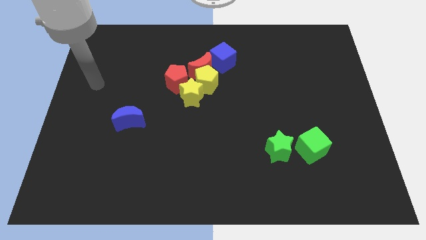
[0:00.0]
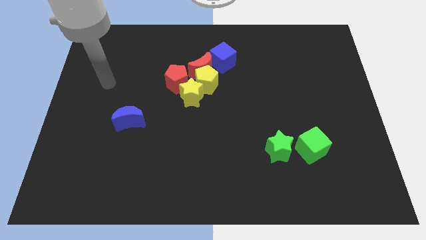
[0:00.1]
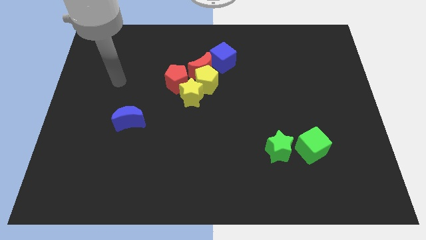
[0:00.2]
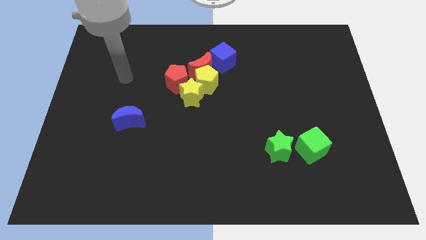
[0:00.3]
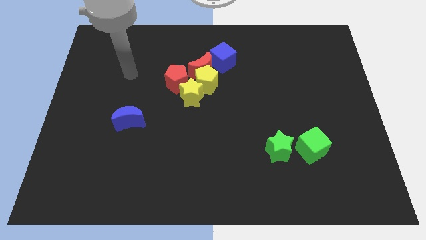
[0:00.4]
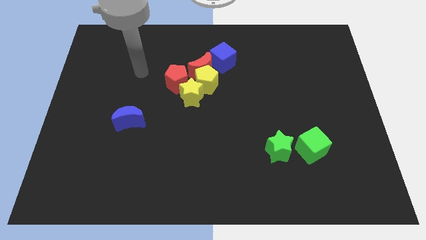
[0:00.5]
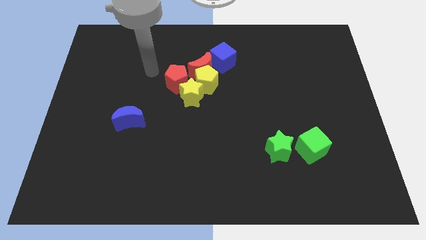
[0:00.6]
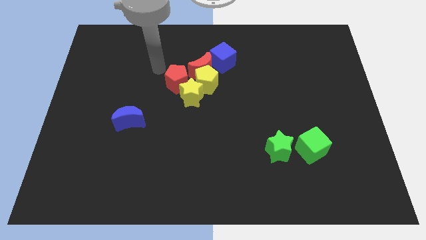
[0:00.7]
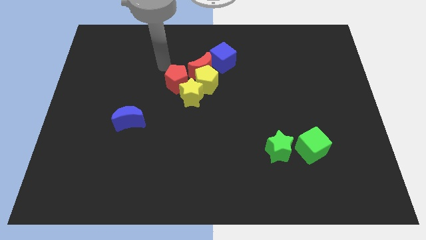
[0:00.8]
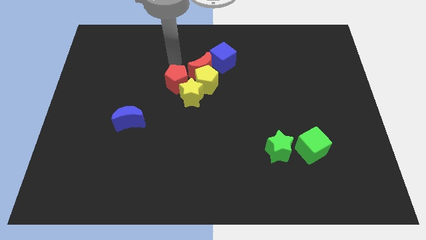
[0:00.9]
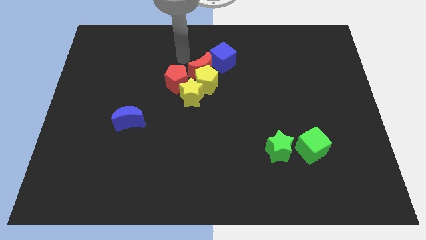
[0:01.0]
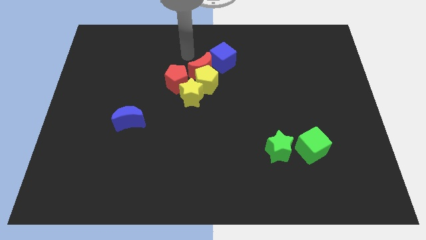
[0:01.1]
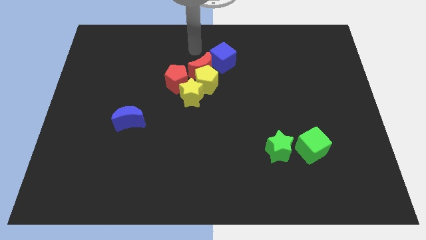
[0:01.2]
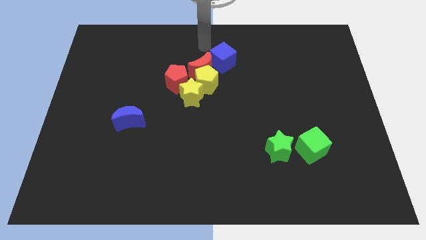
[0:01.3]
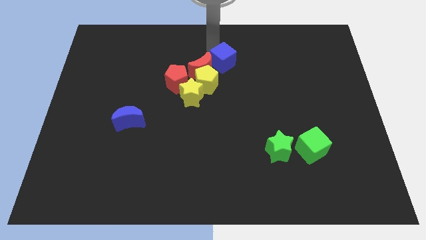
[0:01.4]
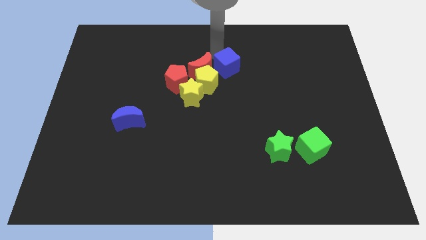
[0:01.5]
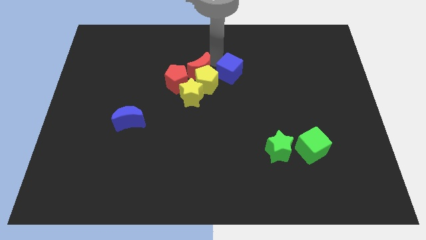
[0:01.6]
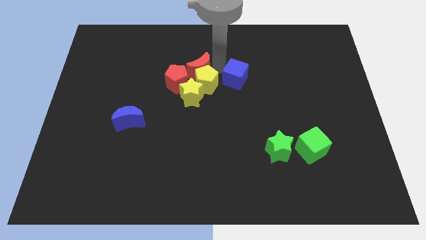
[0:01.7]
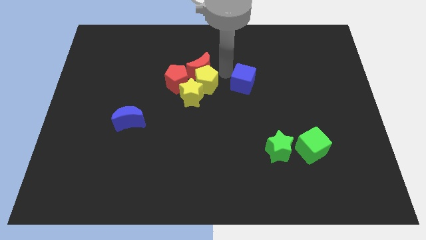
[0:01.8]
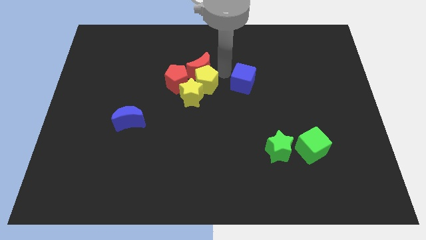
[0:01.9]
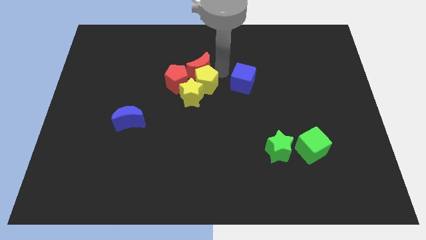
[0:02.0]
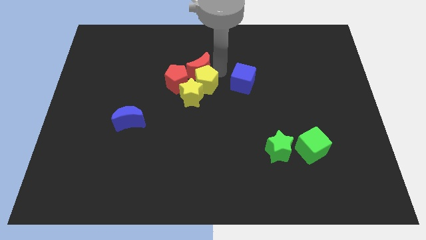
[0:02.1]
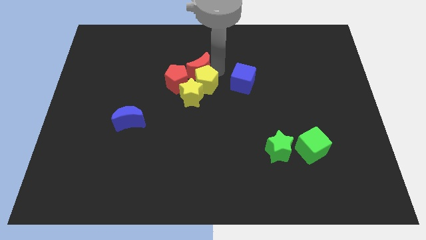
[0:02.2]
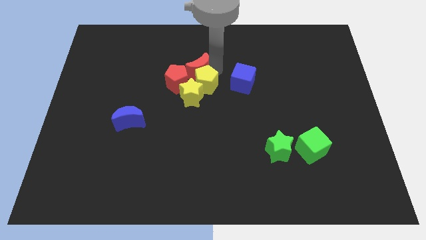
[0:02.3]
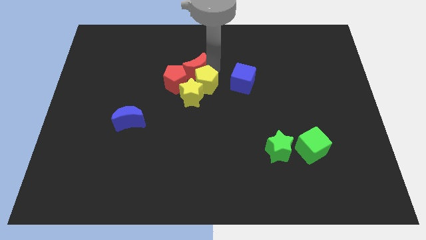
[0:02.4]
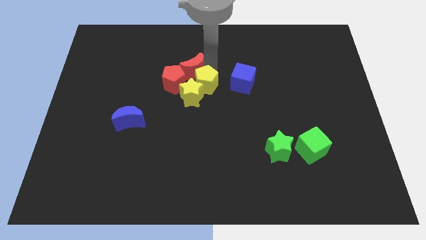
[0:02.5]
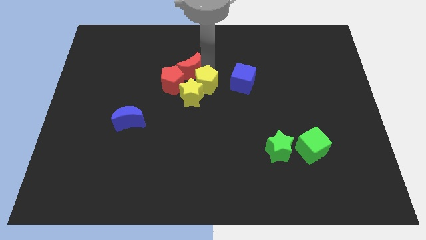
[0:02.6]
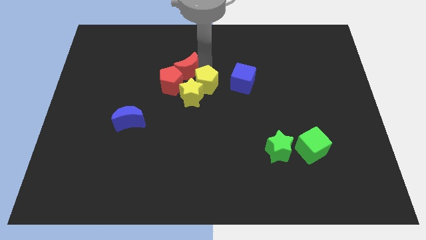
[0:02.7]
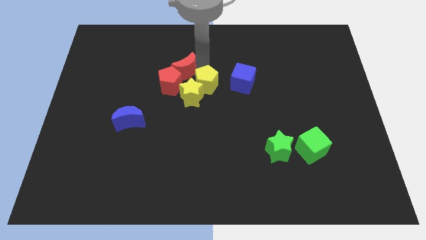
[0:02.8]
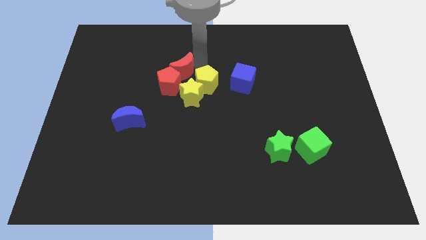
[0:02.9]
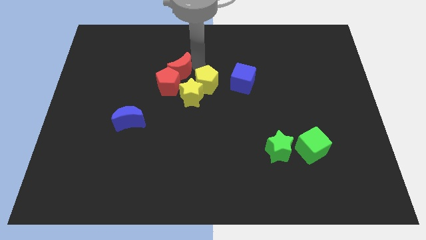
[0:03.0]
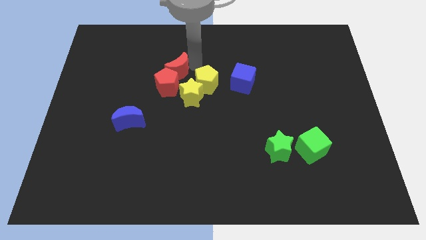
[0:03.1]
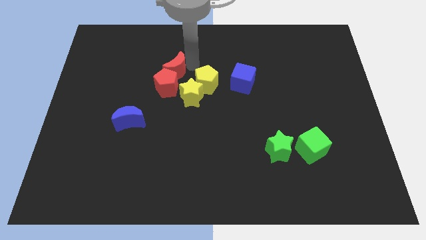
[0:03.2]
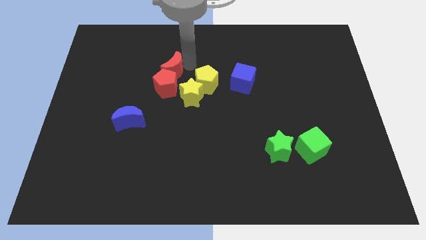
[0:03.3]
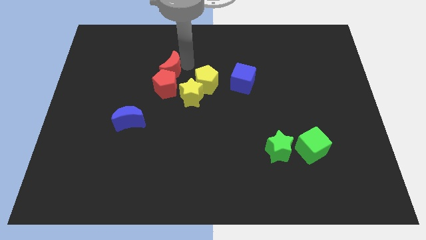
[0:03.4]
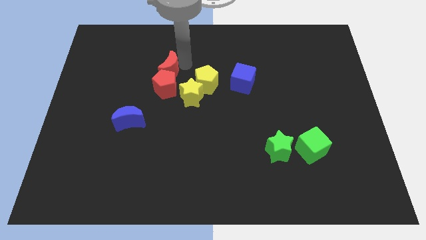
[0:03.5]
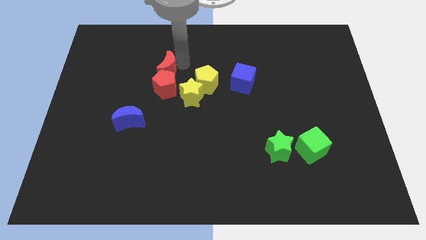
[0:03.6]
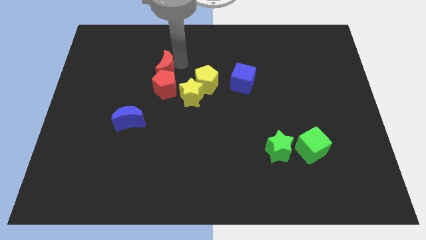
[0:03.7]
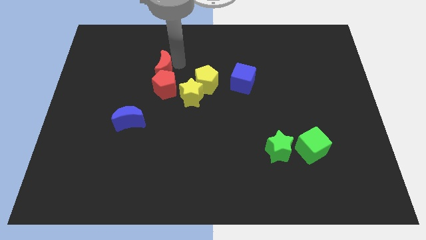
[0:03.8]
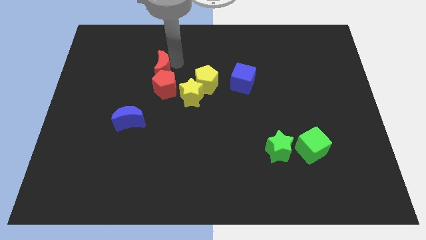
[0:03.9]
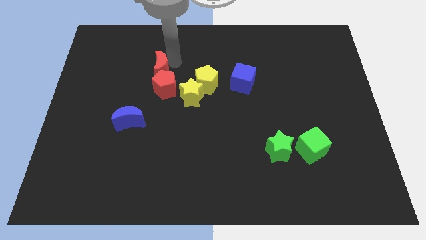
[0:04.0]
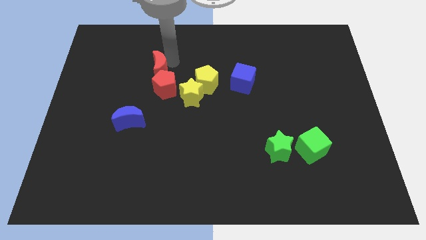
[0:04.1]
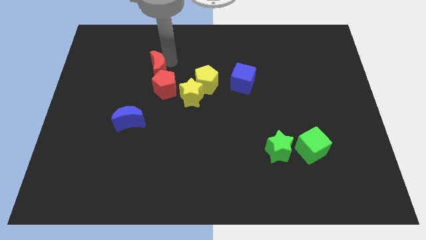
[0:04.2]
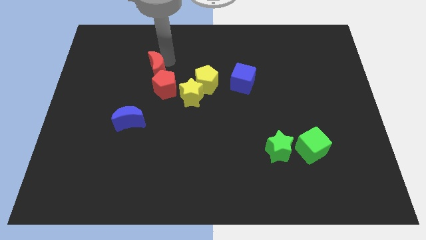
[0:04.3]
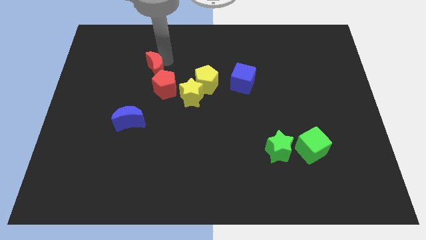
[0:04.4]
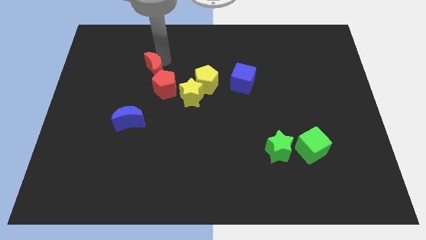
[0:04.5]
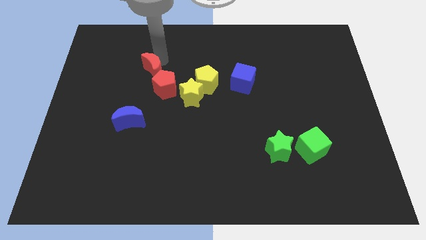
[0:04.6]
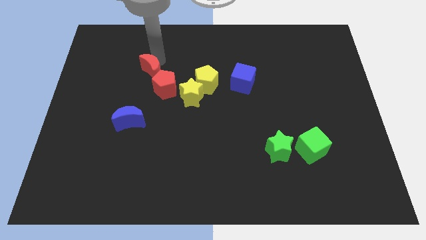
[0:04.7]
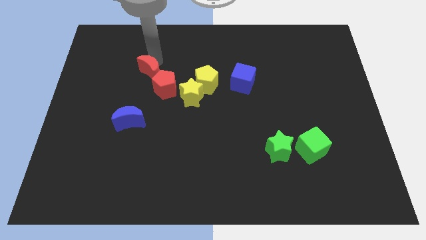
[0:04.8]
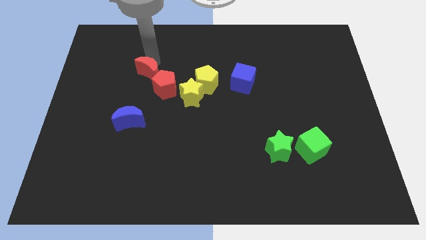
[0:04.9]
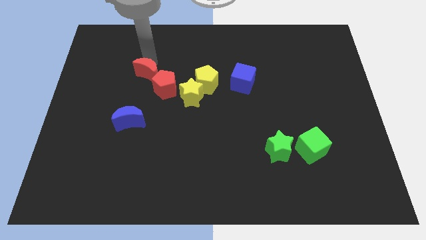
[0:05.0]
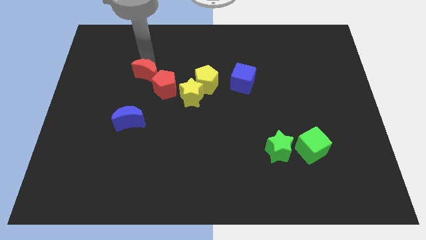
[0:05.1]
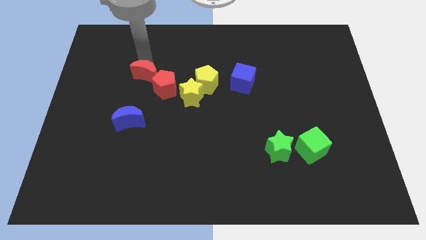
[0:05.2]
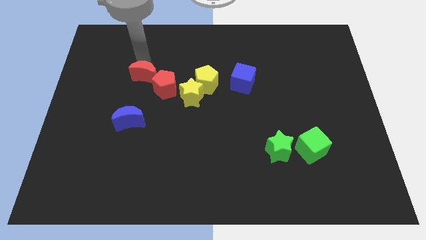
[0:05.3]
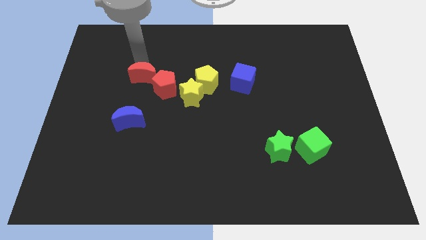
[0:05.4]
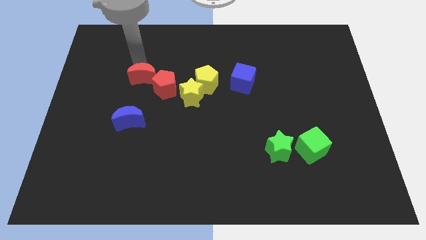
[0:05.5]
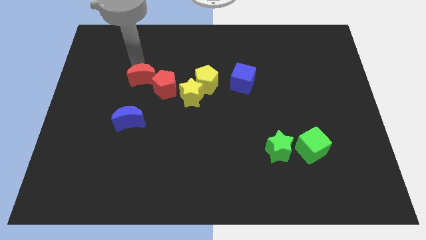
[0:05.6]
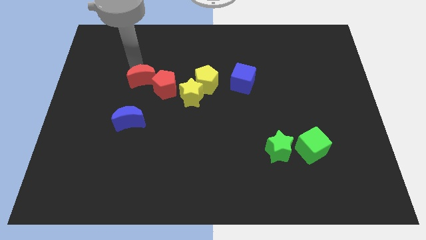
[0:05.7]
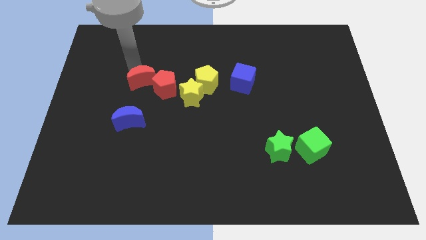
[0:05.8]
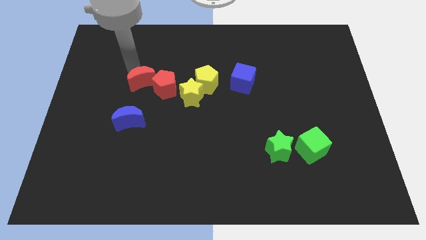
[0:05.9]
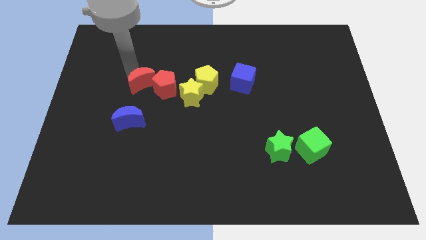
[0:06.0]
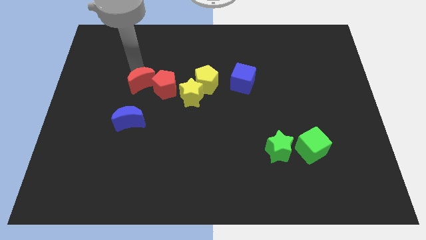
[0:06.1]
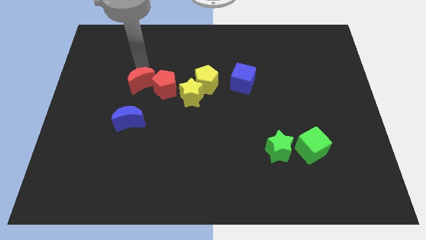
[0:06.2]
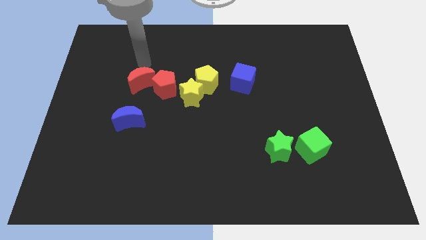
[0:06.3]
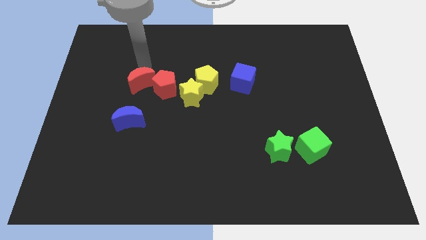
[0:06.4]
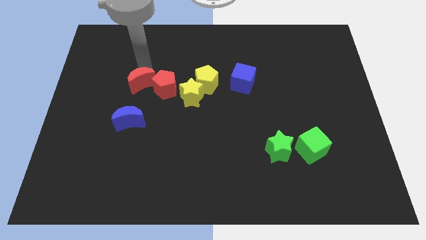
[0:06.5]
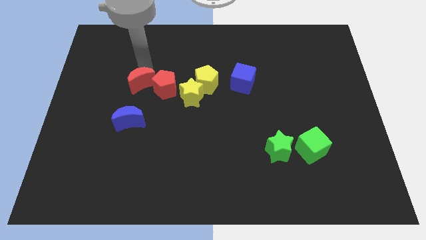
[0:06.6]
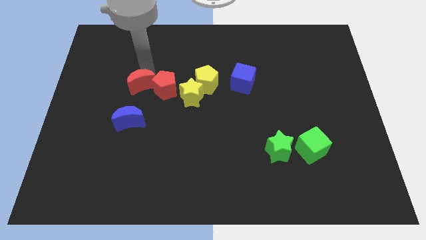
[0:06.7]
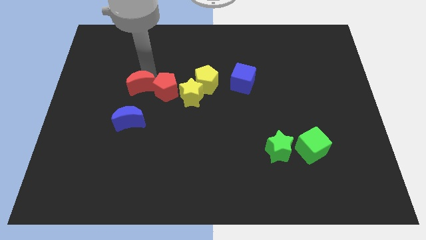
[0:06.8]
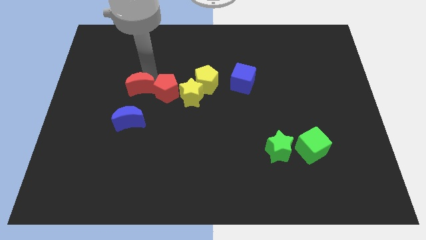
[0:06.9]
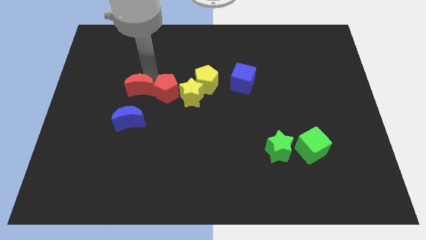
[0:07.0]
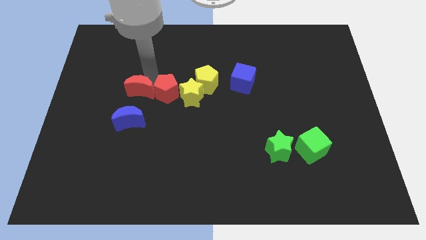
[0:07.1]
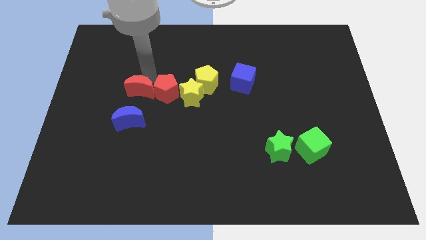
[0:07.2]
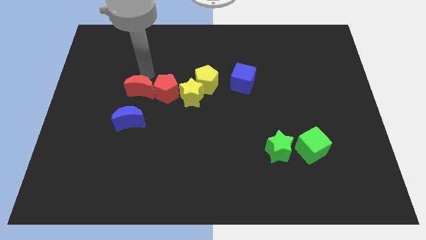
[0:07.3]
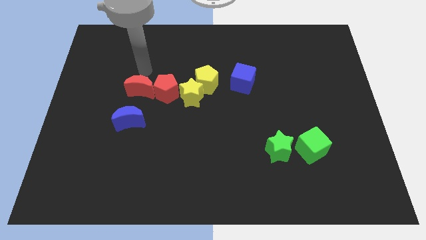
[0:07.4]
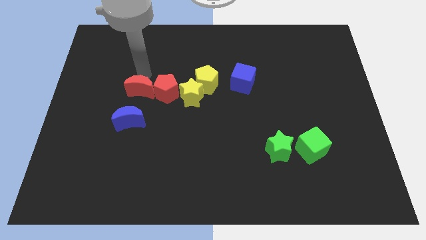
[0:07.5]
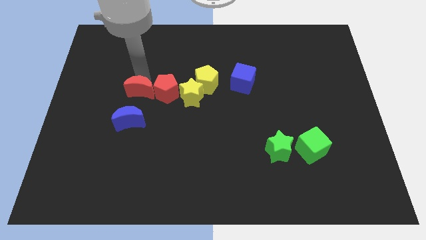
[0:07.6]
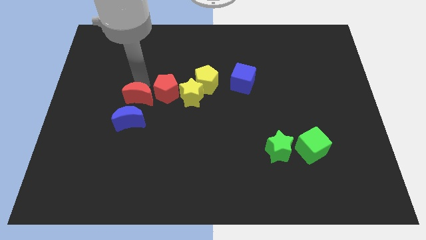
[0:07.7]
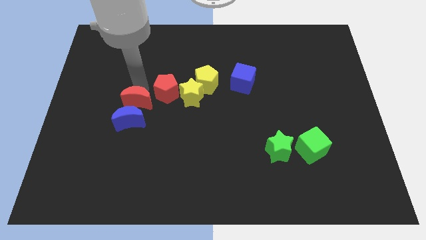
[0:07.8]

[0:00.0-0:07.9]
slide the red moon close to the blue moon
